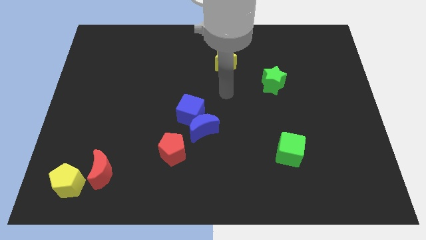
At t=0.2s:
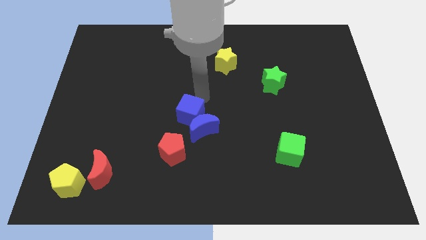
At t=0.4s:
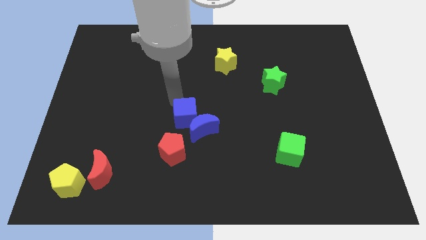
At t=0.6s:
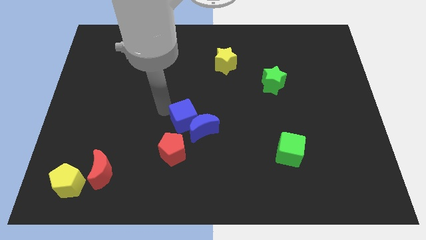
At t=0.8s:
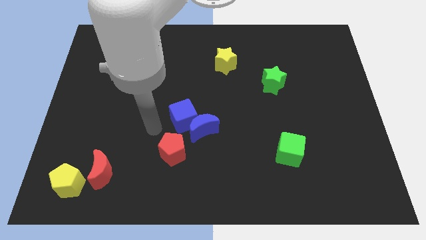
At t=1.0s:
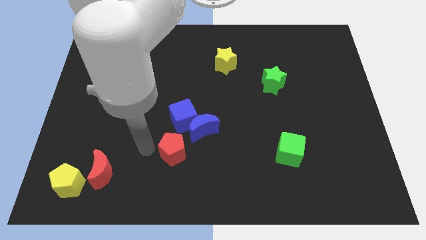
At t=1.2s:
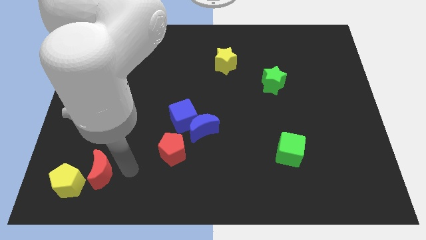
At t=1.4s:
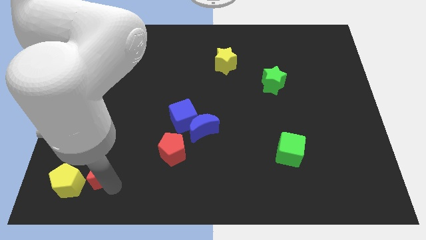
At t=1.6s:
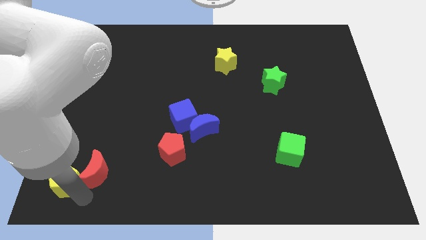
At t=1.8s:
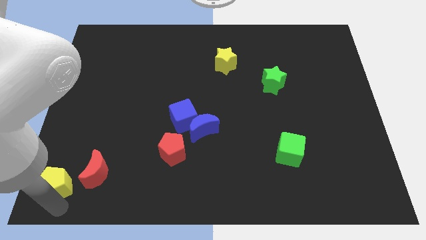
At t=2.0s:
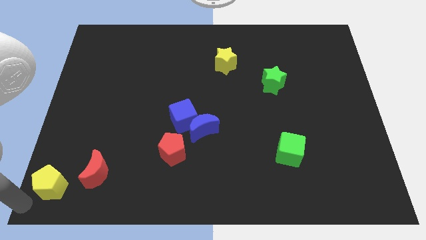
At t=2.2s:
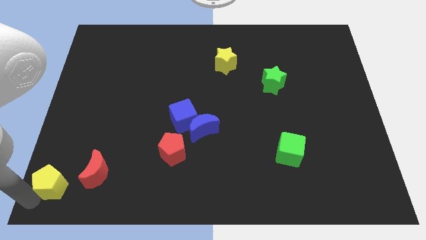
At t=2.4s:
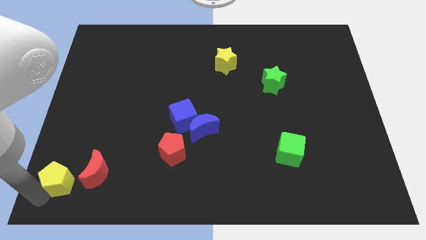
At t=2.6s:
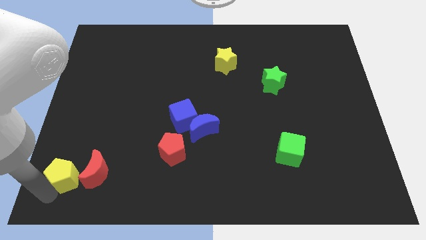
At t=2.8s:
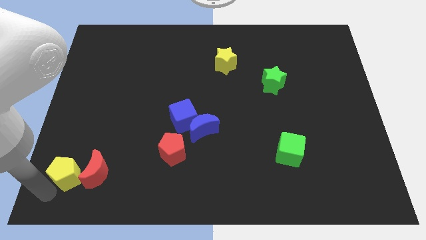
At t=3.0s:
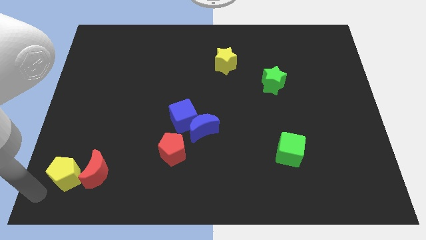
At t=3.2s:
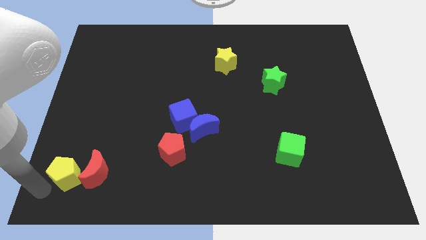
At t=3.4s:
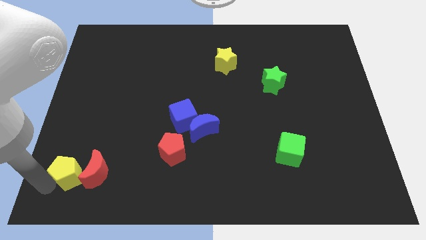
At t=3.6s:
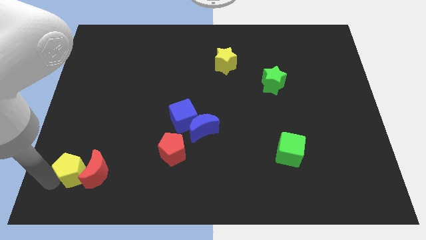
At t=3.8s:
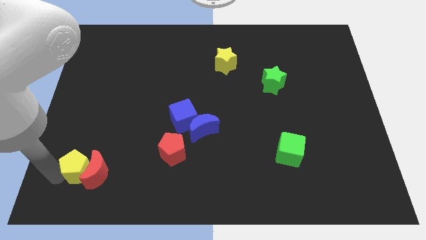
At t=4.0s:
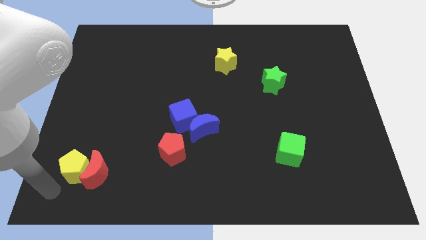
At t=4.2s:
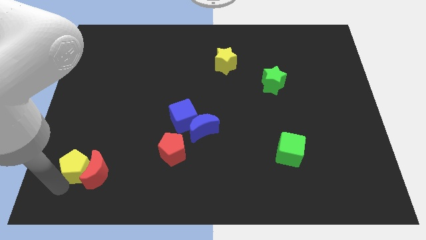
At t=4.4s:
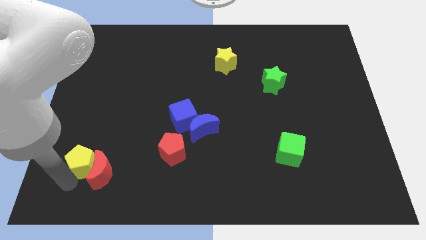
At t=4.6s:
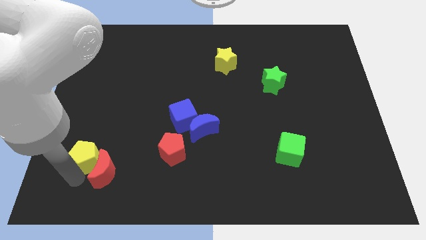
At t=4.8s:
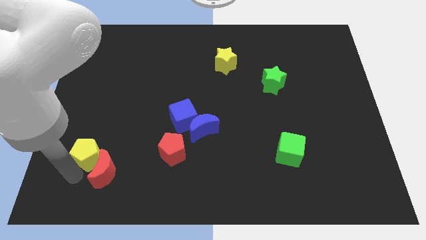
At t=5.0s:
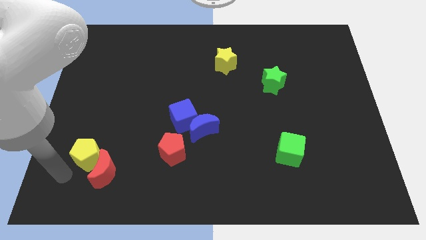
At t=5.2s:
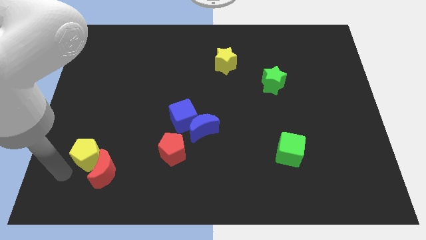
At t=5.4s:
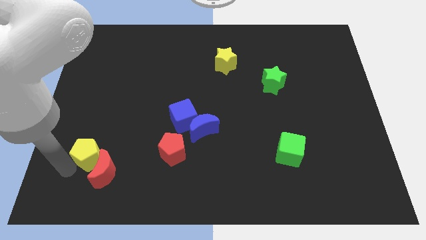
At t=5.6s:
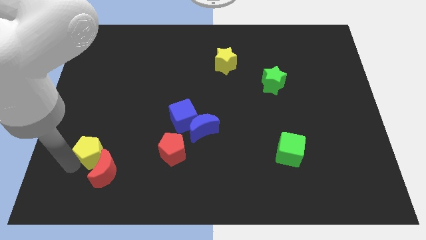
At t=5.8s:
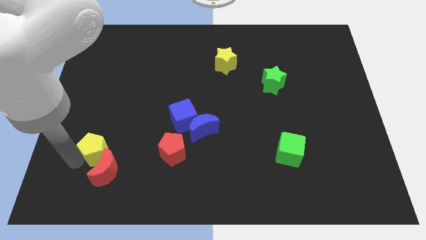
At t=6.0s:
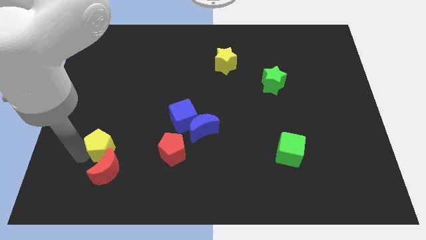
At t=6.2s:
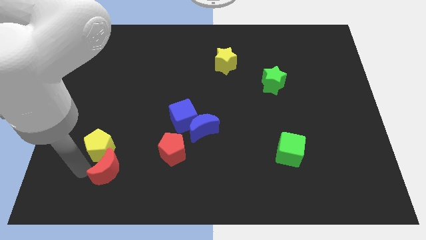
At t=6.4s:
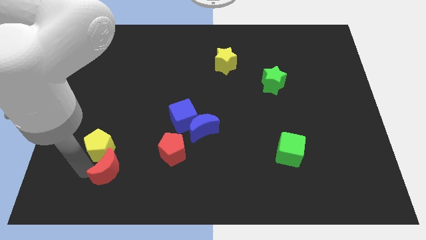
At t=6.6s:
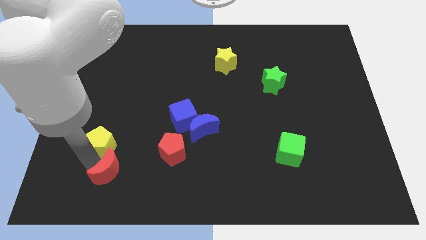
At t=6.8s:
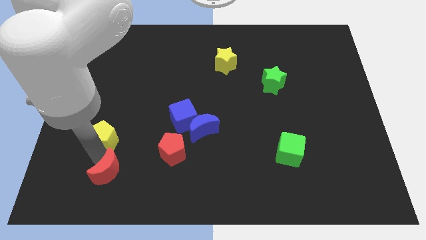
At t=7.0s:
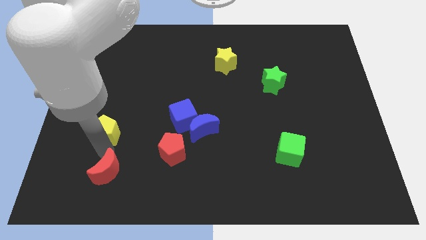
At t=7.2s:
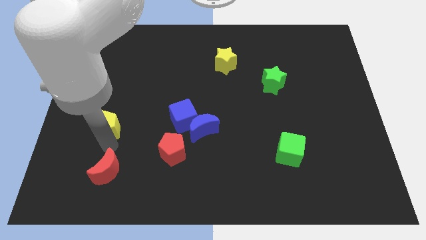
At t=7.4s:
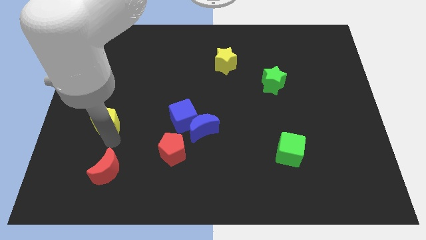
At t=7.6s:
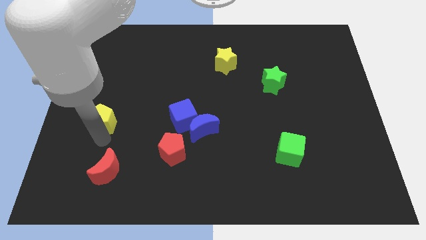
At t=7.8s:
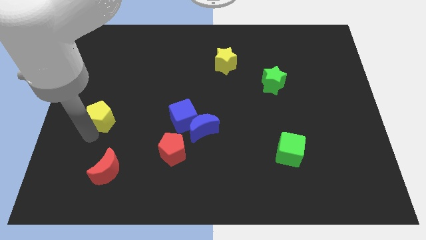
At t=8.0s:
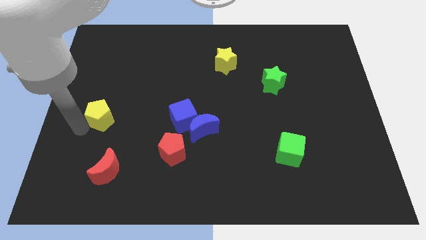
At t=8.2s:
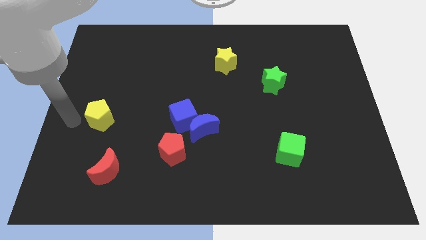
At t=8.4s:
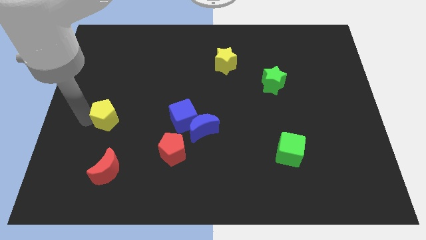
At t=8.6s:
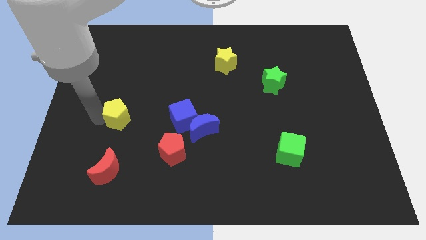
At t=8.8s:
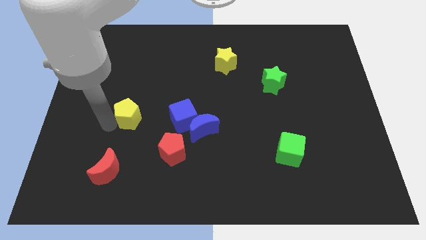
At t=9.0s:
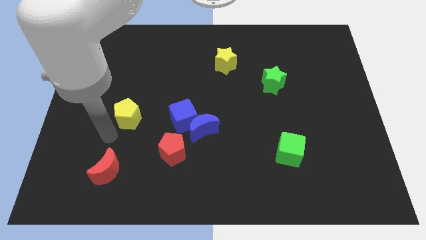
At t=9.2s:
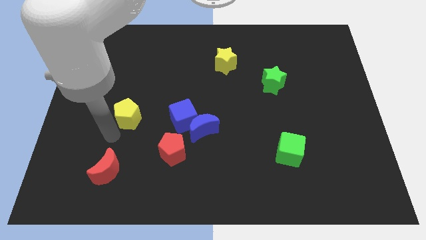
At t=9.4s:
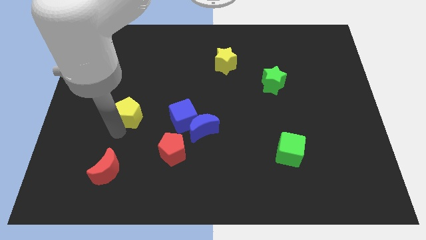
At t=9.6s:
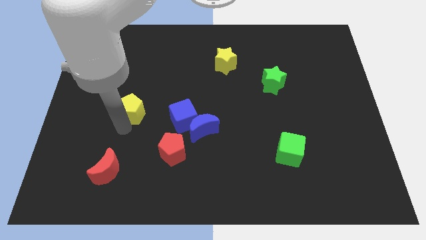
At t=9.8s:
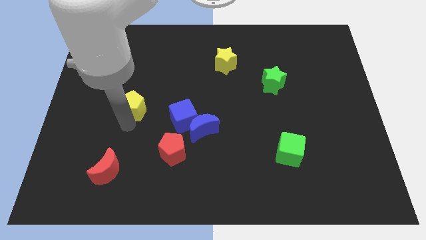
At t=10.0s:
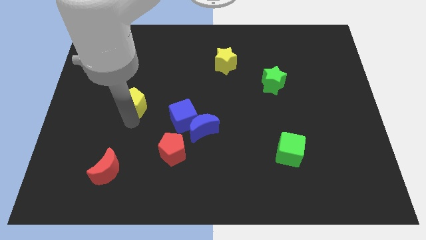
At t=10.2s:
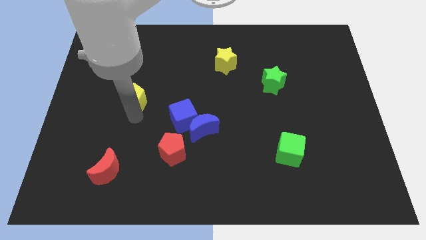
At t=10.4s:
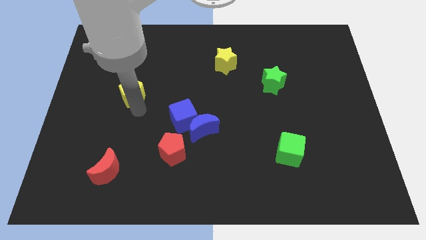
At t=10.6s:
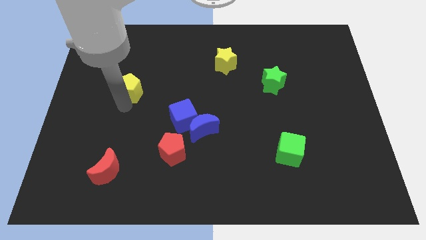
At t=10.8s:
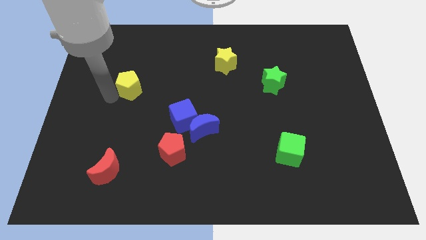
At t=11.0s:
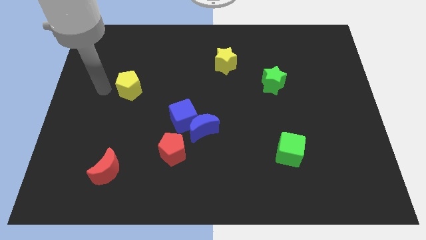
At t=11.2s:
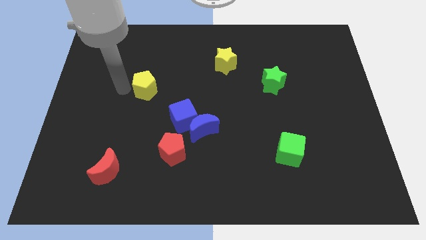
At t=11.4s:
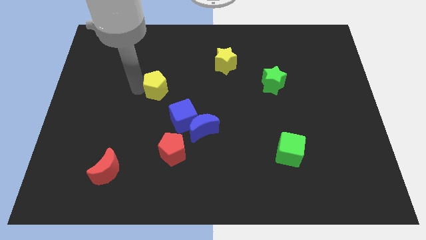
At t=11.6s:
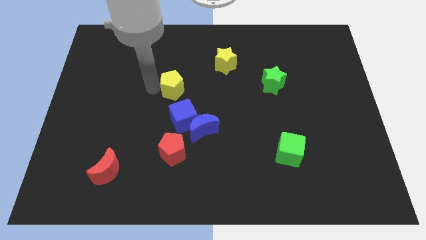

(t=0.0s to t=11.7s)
push the yellow pentagon to the middle
